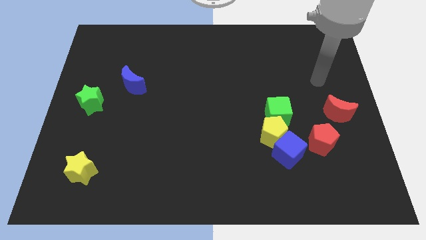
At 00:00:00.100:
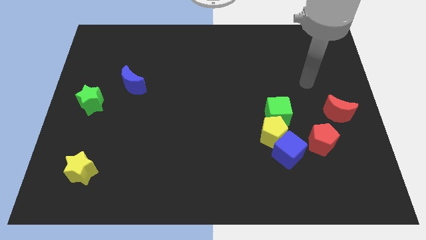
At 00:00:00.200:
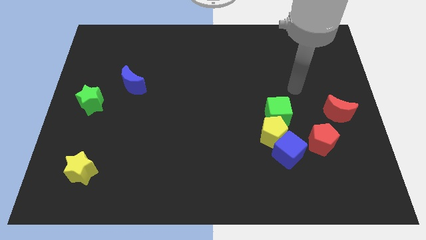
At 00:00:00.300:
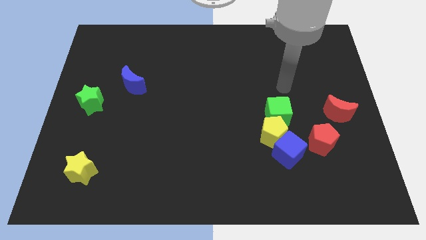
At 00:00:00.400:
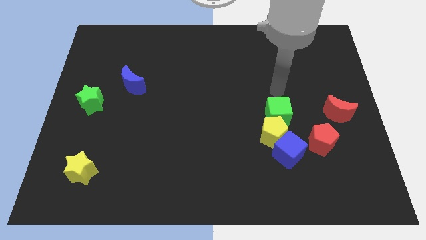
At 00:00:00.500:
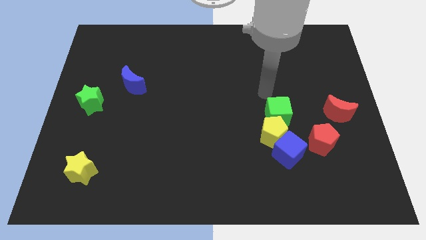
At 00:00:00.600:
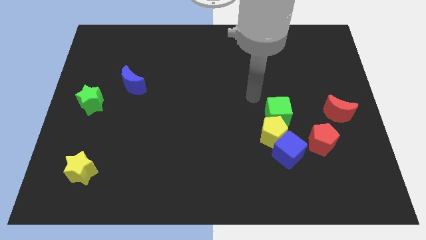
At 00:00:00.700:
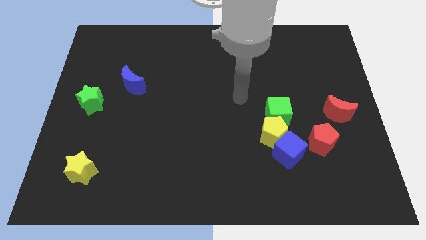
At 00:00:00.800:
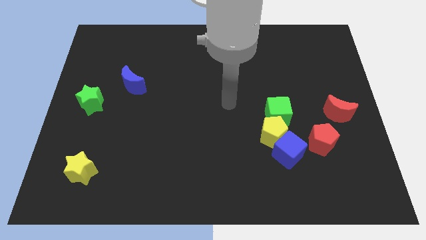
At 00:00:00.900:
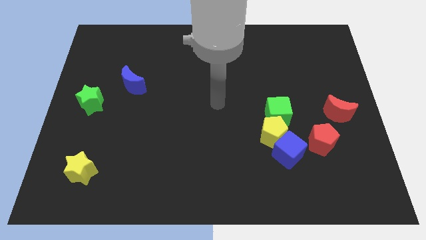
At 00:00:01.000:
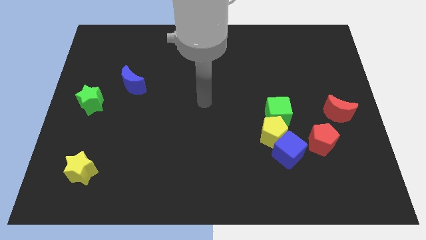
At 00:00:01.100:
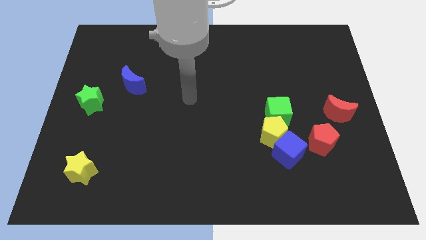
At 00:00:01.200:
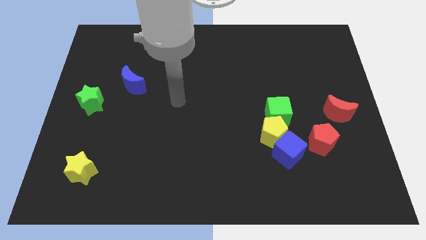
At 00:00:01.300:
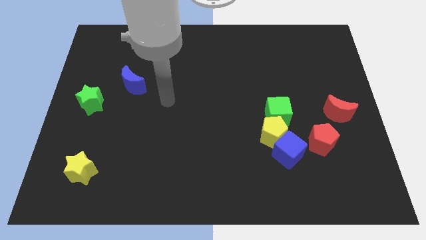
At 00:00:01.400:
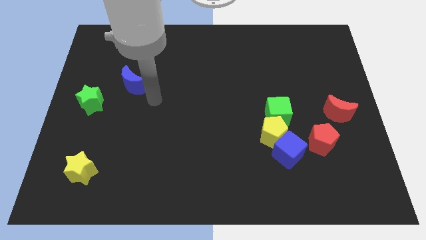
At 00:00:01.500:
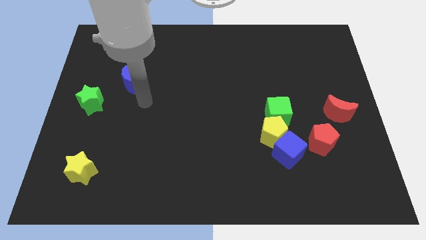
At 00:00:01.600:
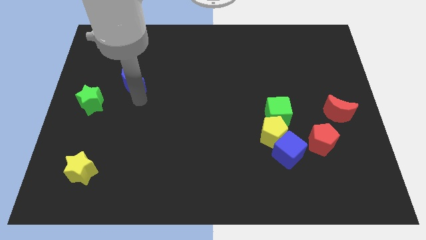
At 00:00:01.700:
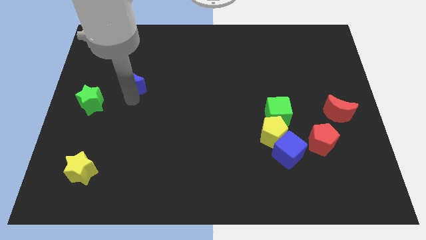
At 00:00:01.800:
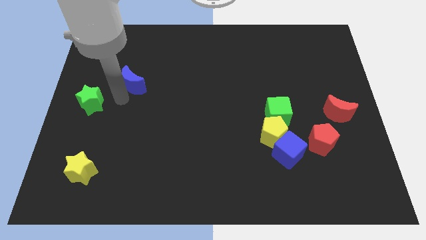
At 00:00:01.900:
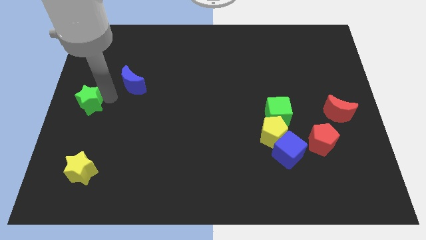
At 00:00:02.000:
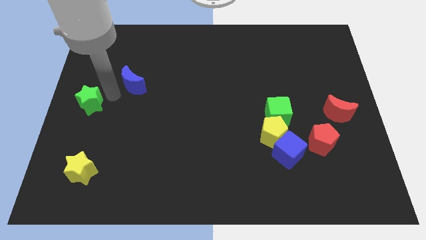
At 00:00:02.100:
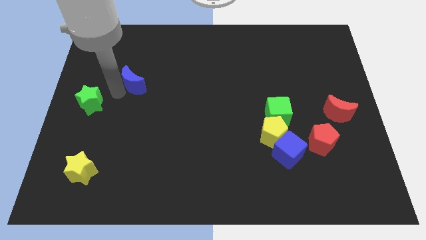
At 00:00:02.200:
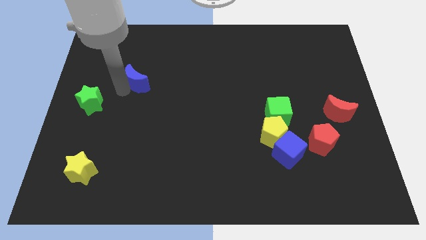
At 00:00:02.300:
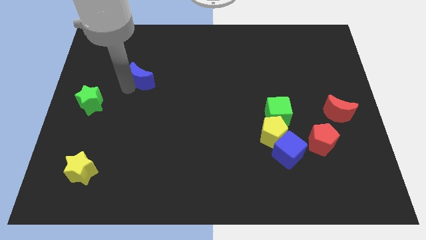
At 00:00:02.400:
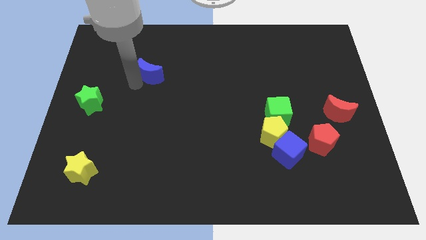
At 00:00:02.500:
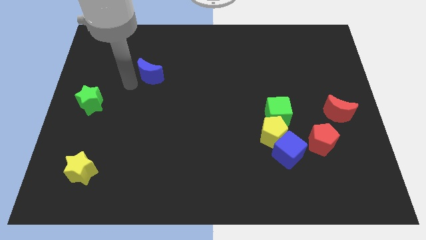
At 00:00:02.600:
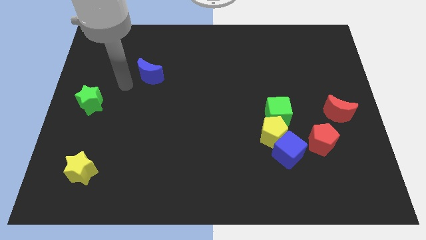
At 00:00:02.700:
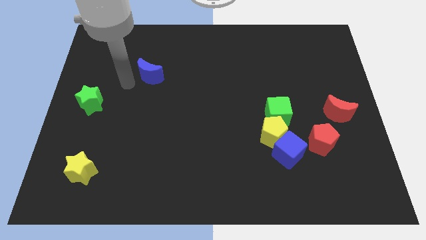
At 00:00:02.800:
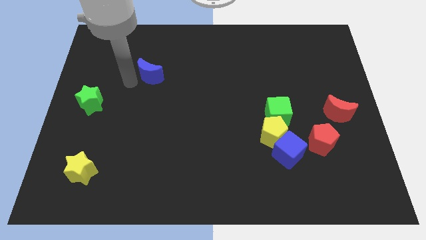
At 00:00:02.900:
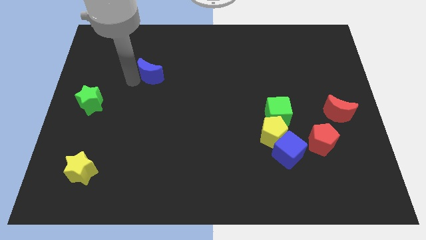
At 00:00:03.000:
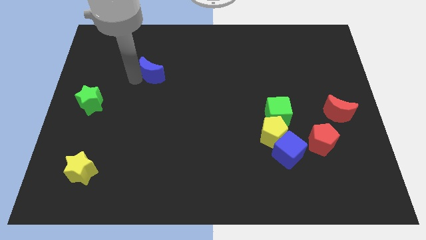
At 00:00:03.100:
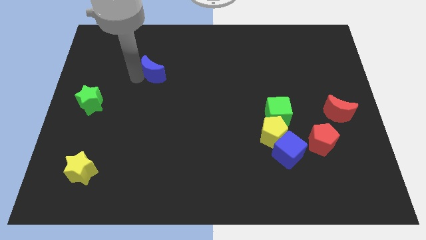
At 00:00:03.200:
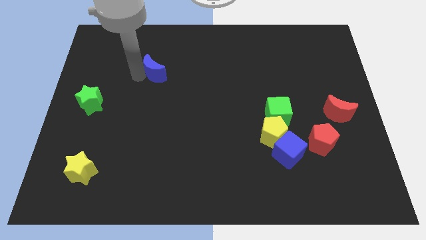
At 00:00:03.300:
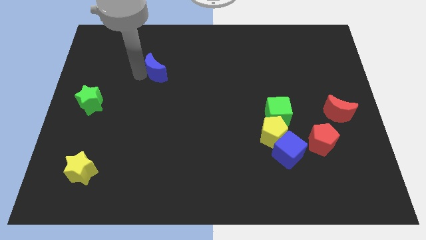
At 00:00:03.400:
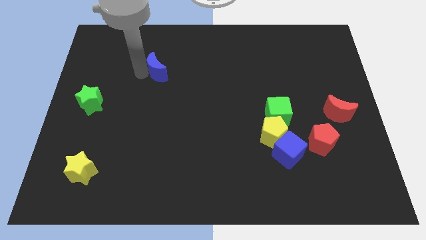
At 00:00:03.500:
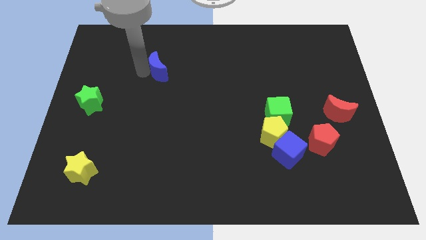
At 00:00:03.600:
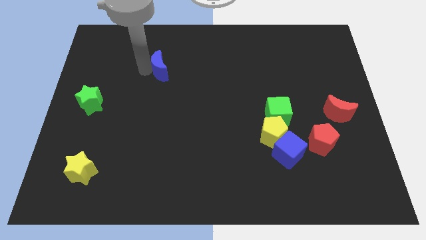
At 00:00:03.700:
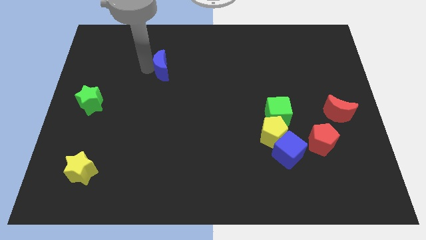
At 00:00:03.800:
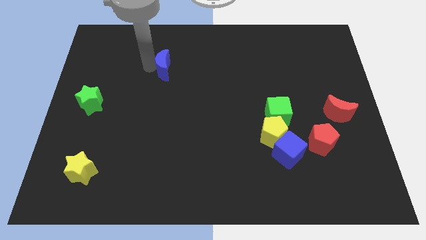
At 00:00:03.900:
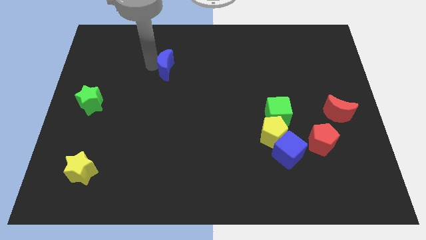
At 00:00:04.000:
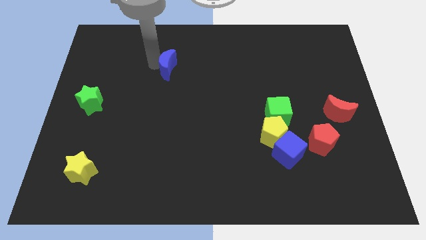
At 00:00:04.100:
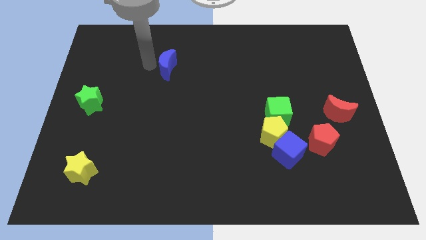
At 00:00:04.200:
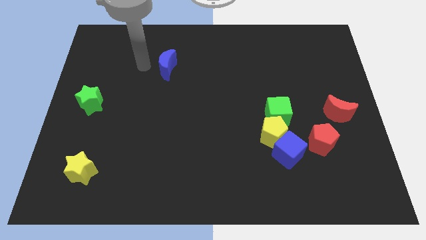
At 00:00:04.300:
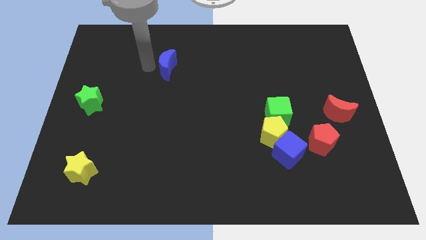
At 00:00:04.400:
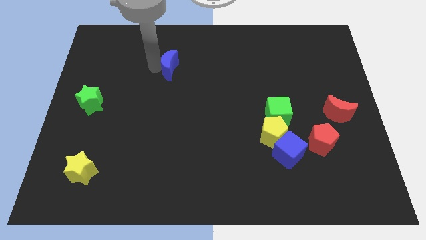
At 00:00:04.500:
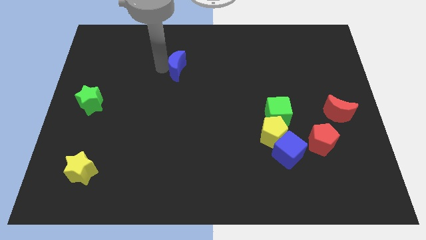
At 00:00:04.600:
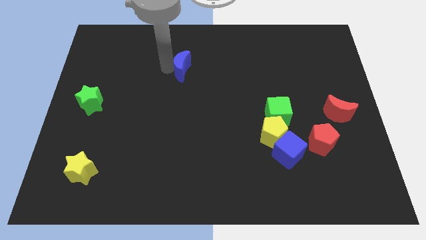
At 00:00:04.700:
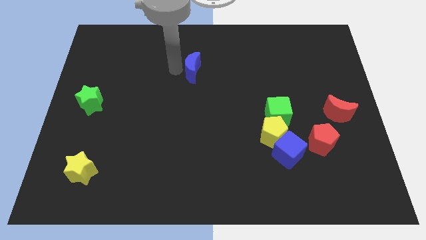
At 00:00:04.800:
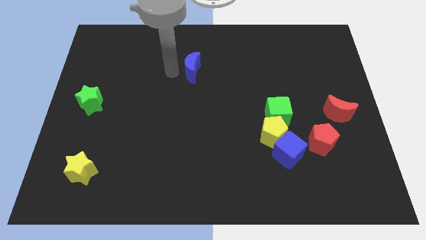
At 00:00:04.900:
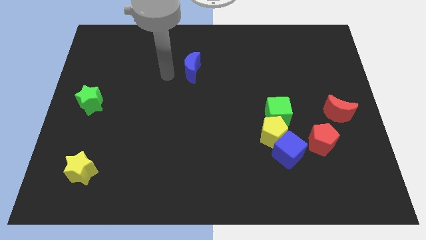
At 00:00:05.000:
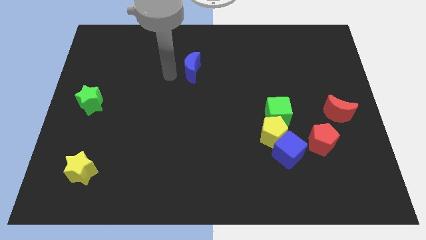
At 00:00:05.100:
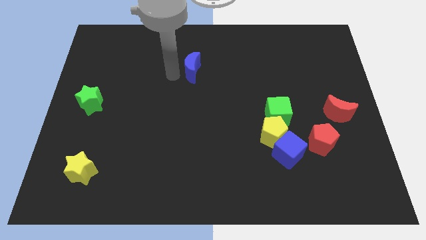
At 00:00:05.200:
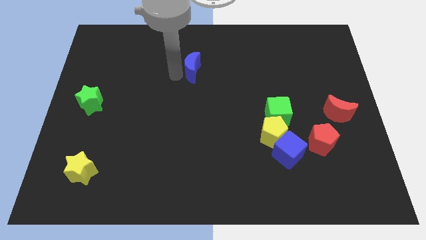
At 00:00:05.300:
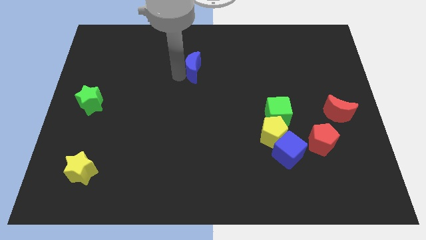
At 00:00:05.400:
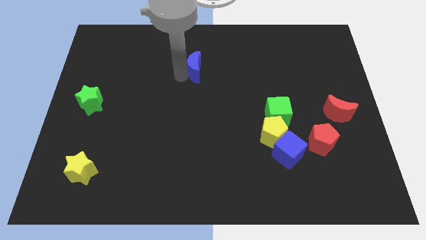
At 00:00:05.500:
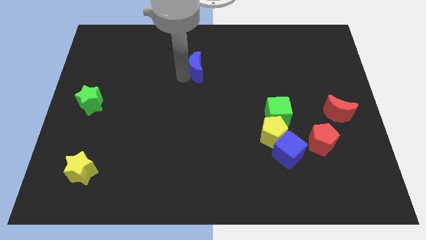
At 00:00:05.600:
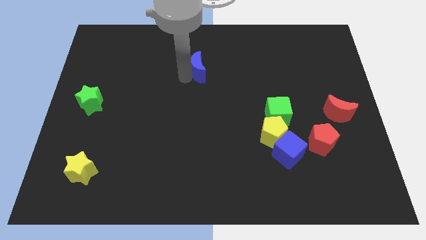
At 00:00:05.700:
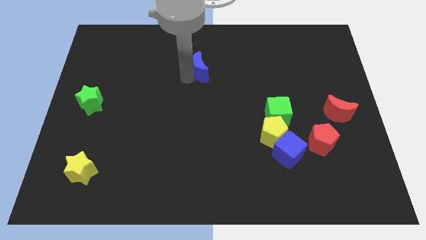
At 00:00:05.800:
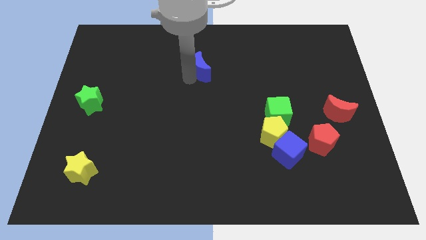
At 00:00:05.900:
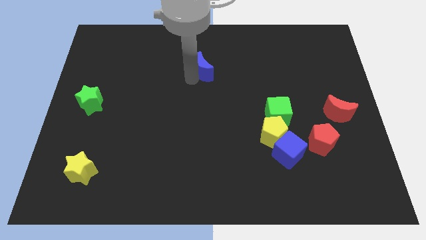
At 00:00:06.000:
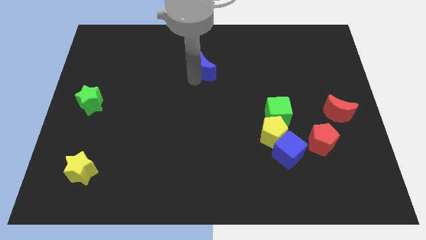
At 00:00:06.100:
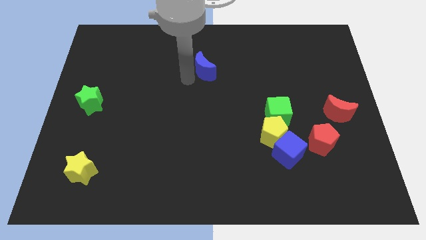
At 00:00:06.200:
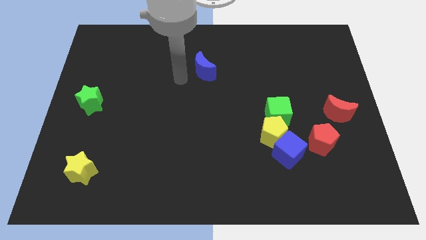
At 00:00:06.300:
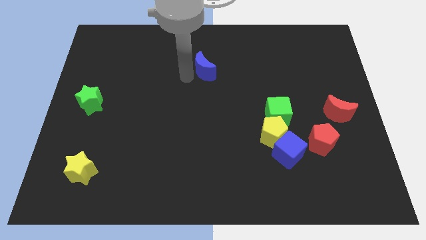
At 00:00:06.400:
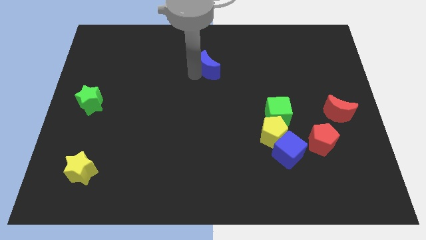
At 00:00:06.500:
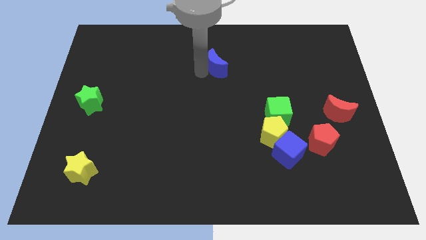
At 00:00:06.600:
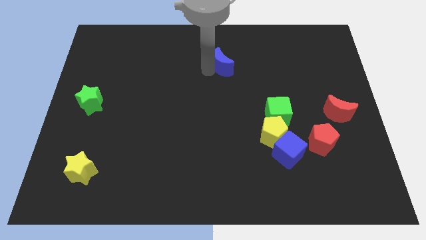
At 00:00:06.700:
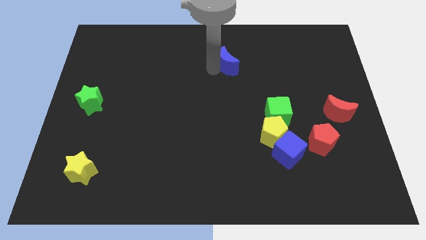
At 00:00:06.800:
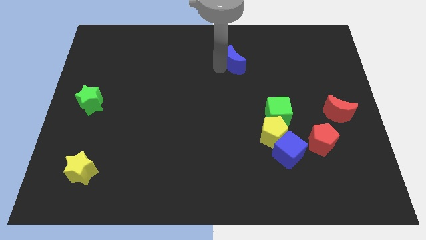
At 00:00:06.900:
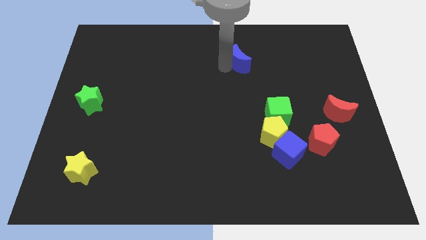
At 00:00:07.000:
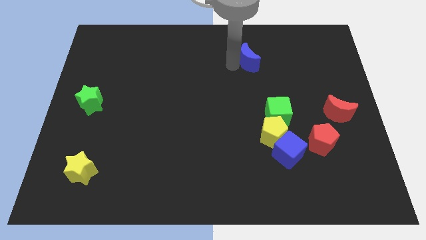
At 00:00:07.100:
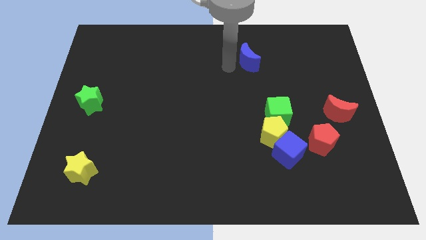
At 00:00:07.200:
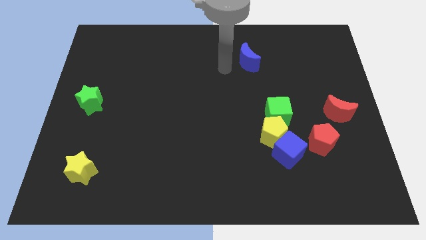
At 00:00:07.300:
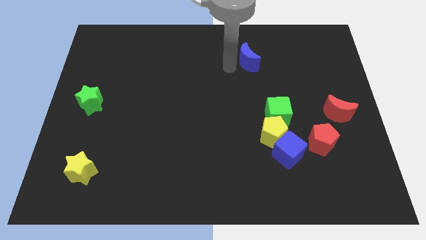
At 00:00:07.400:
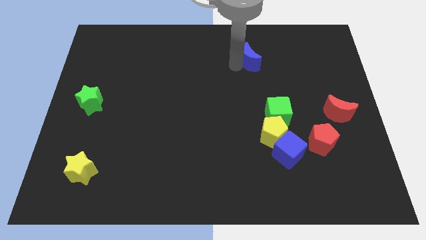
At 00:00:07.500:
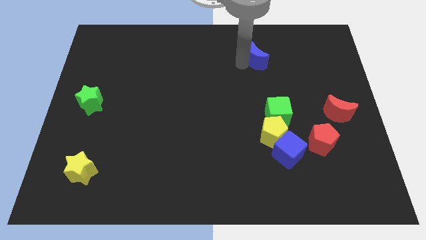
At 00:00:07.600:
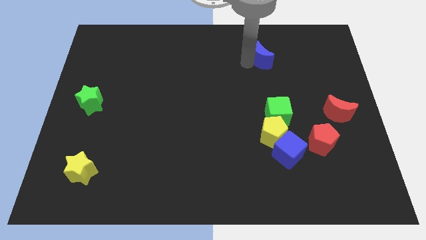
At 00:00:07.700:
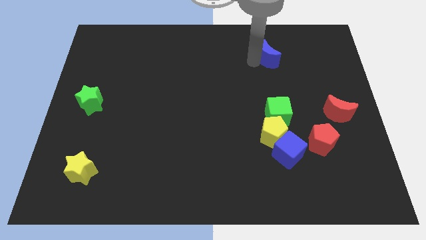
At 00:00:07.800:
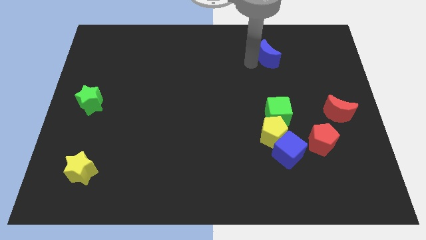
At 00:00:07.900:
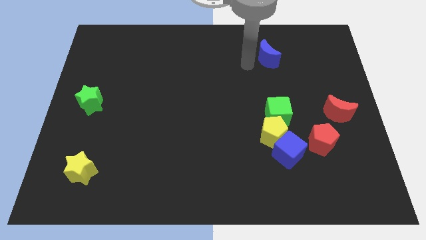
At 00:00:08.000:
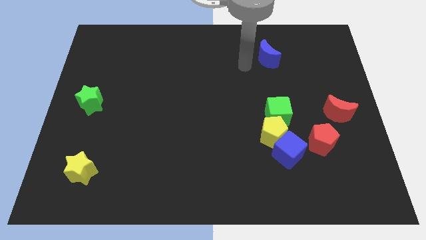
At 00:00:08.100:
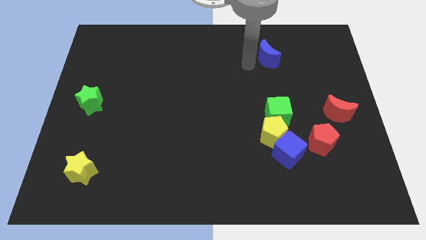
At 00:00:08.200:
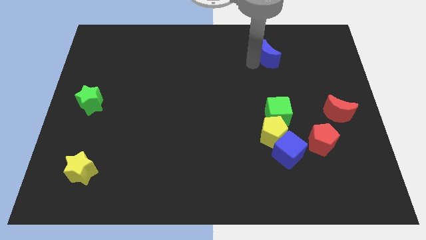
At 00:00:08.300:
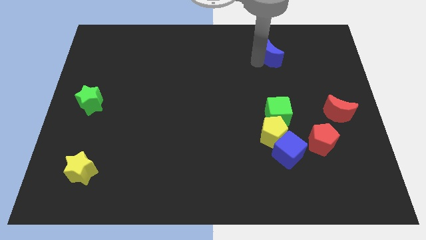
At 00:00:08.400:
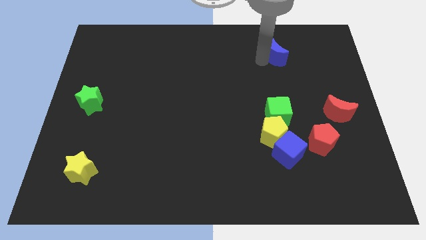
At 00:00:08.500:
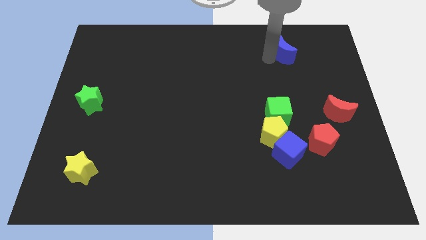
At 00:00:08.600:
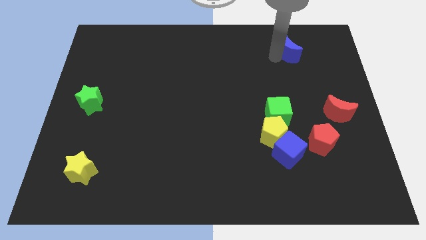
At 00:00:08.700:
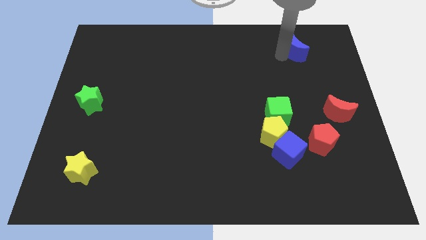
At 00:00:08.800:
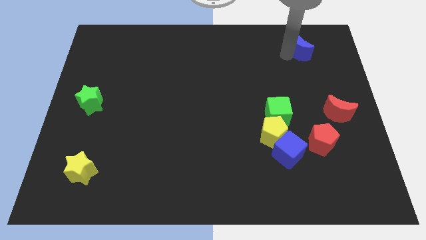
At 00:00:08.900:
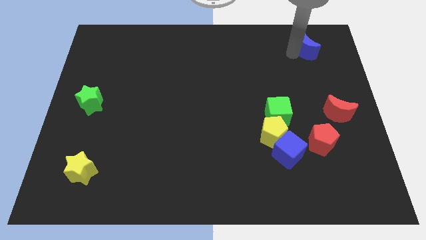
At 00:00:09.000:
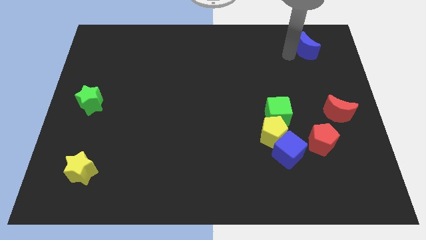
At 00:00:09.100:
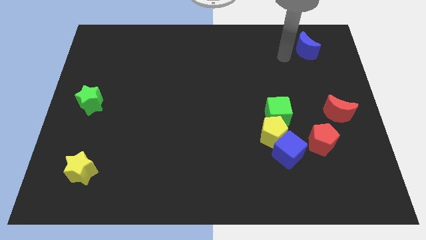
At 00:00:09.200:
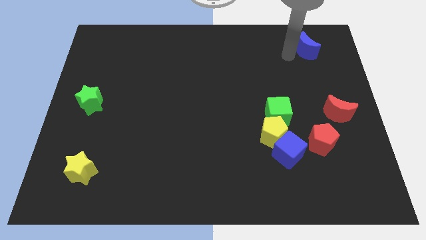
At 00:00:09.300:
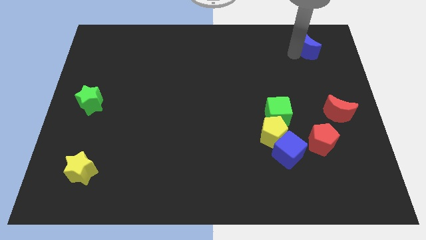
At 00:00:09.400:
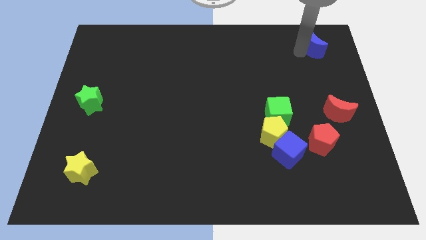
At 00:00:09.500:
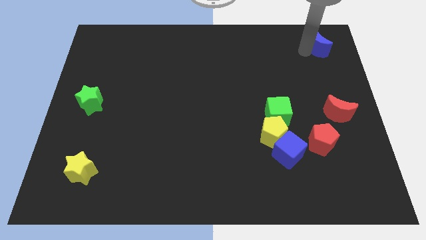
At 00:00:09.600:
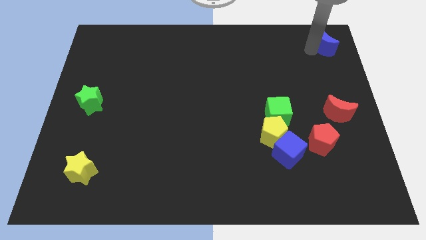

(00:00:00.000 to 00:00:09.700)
put the blue moon to the top right of the board
